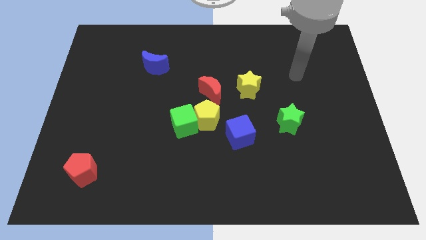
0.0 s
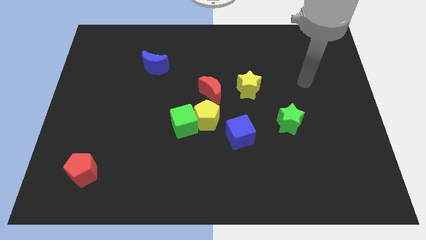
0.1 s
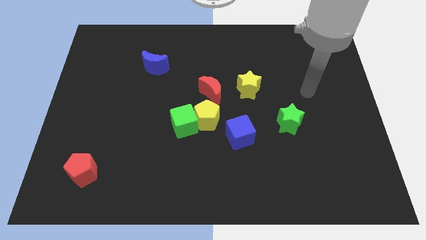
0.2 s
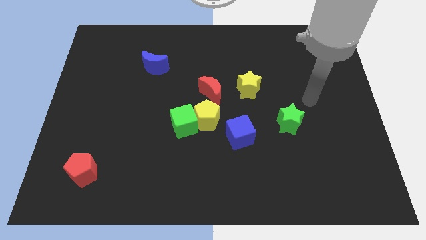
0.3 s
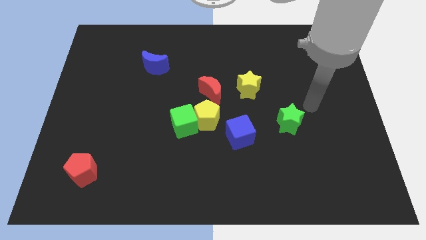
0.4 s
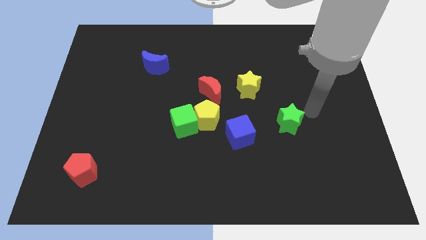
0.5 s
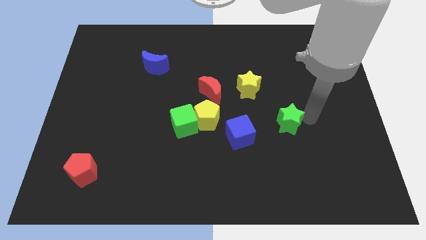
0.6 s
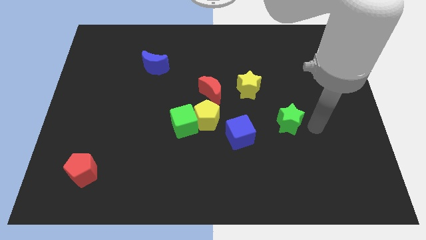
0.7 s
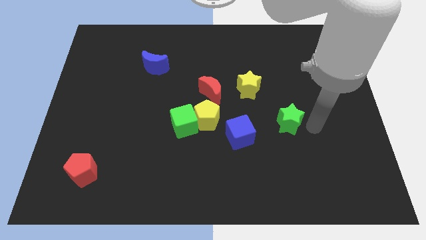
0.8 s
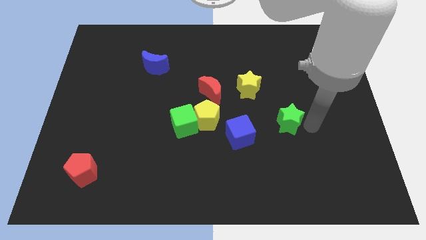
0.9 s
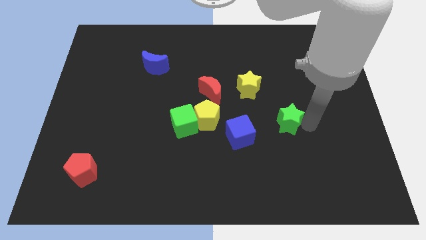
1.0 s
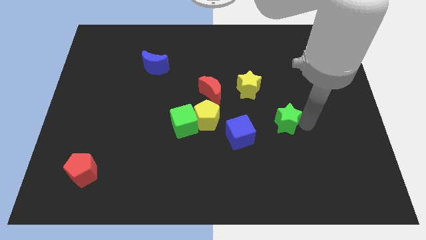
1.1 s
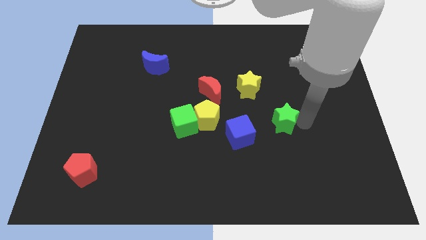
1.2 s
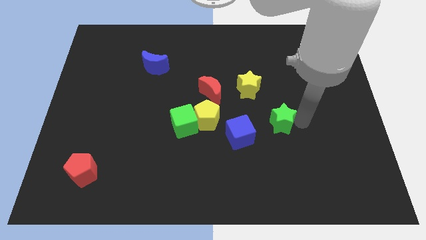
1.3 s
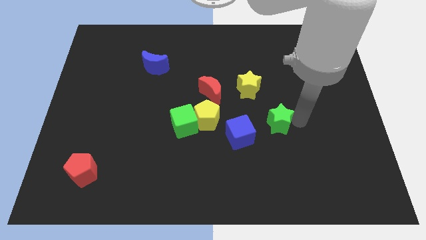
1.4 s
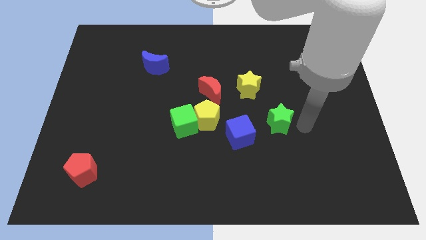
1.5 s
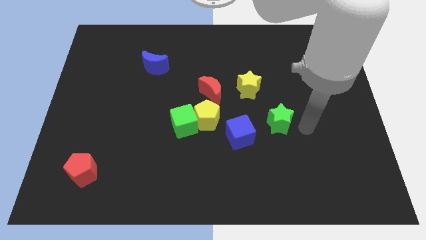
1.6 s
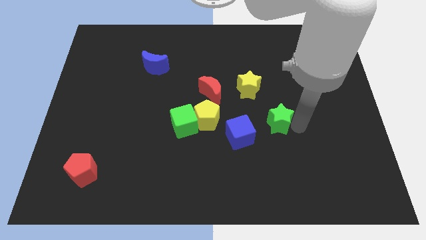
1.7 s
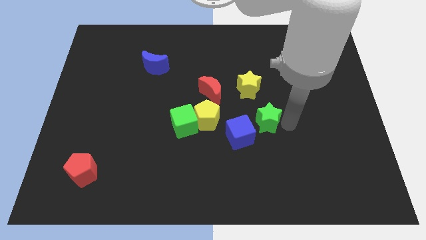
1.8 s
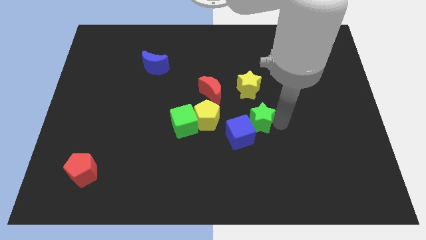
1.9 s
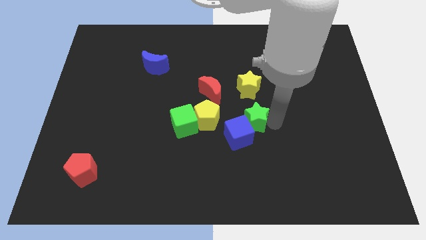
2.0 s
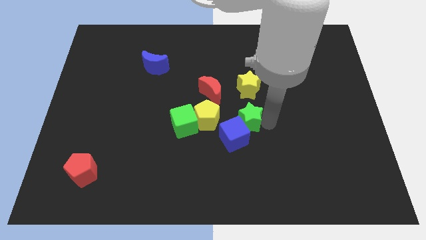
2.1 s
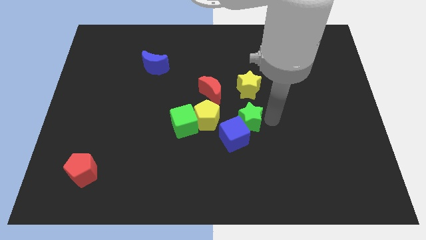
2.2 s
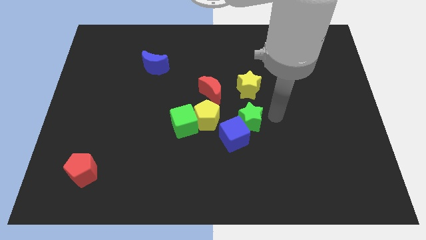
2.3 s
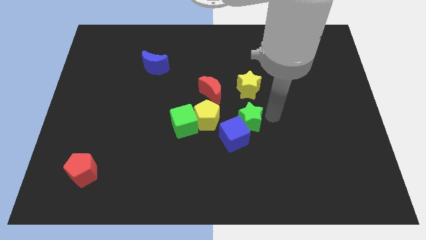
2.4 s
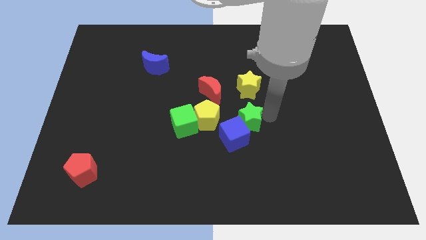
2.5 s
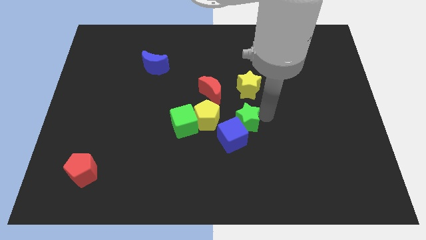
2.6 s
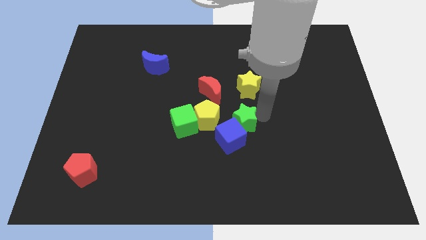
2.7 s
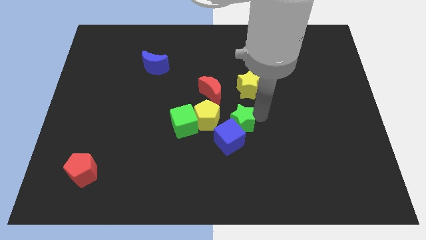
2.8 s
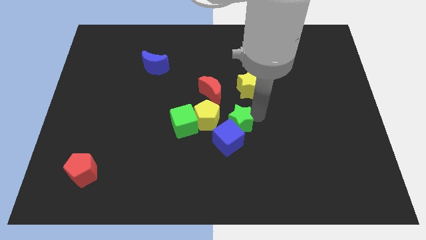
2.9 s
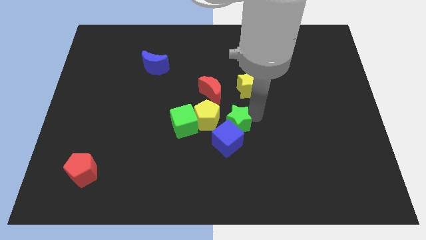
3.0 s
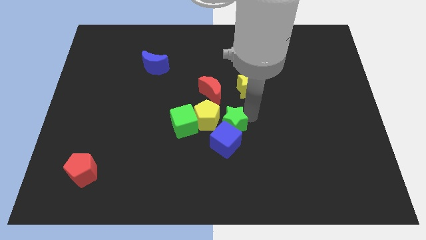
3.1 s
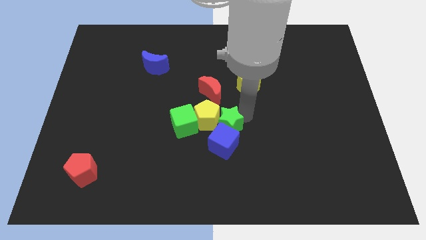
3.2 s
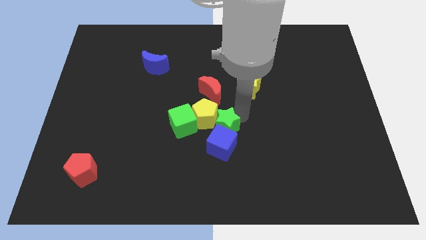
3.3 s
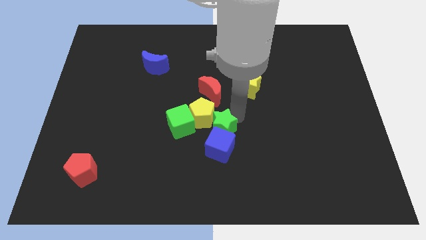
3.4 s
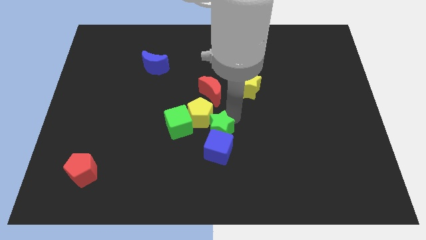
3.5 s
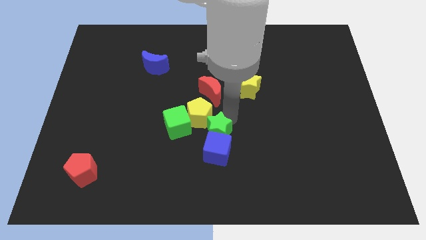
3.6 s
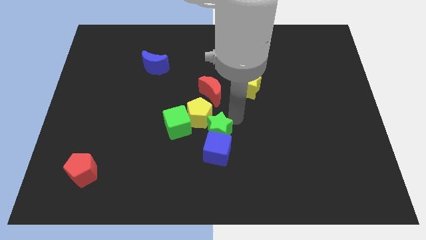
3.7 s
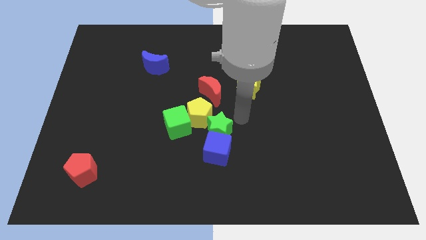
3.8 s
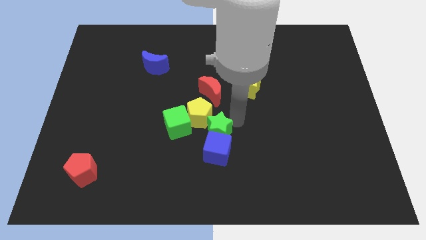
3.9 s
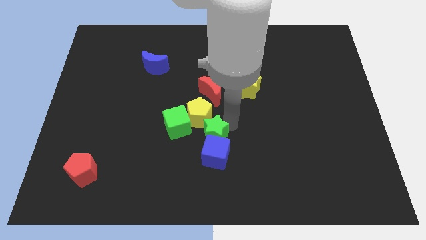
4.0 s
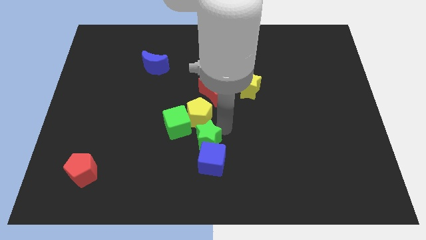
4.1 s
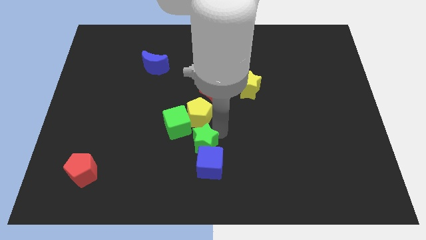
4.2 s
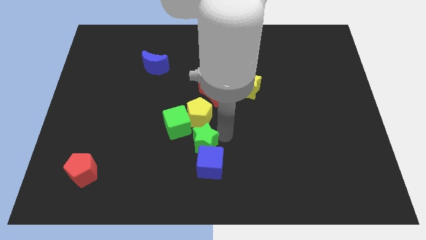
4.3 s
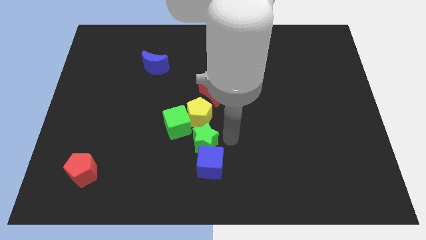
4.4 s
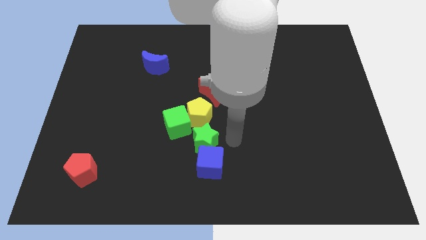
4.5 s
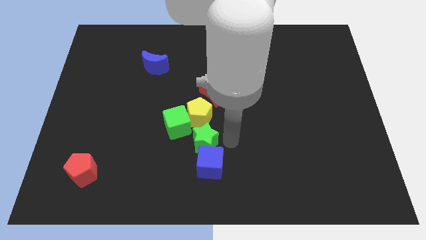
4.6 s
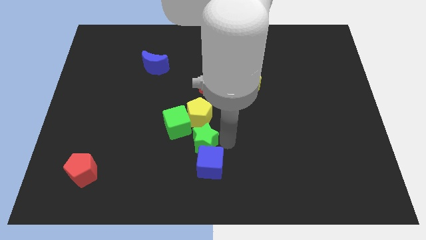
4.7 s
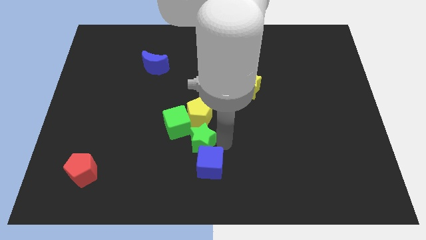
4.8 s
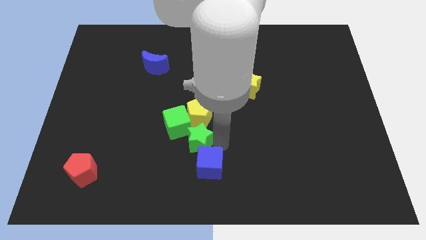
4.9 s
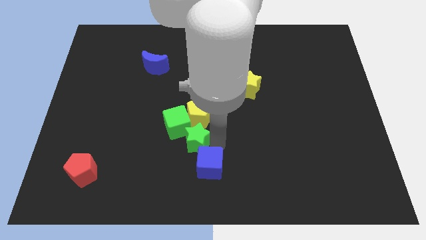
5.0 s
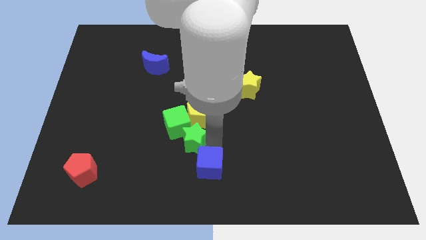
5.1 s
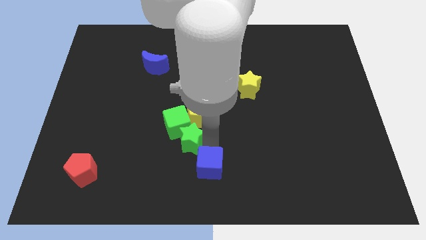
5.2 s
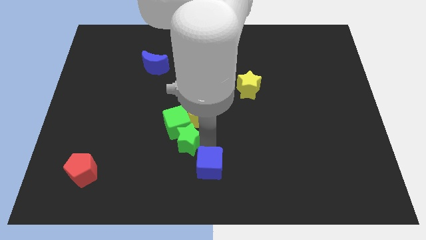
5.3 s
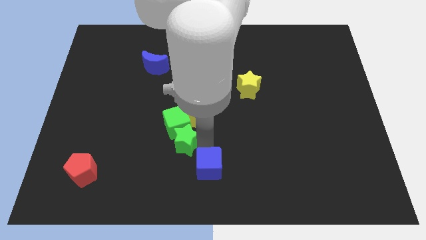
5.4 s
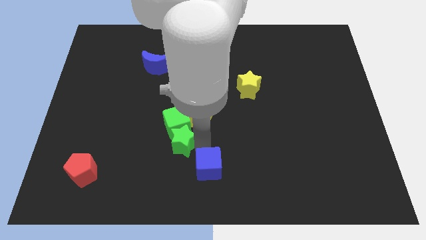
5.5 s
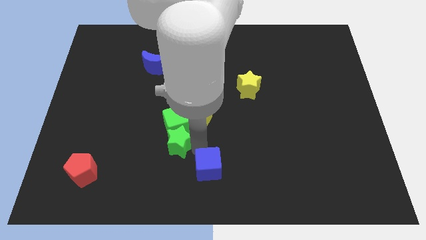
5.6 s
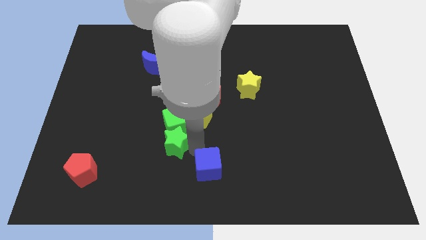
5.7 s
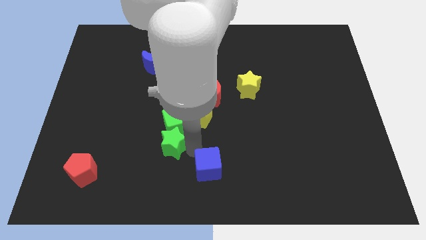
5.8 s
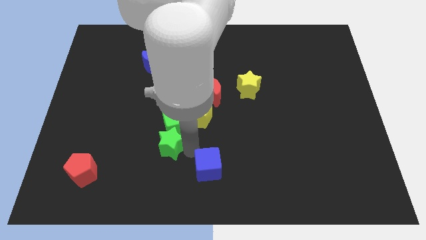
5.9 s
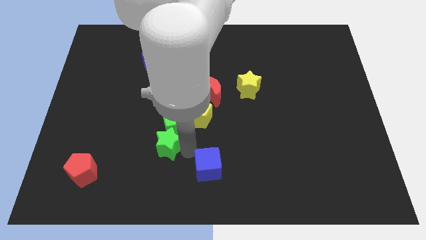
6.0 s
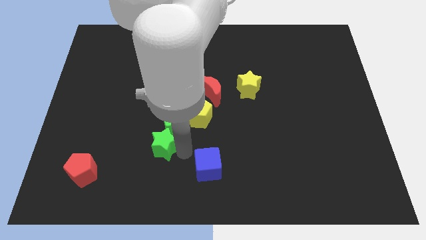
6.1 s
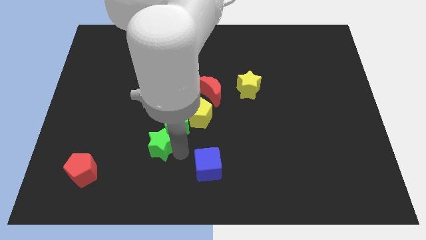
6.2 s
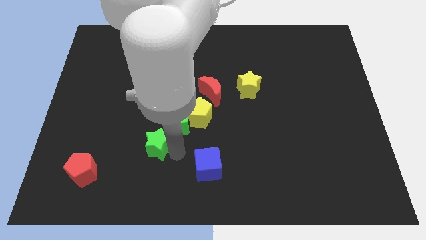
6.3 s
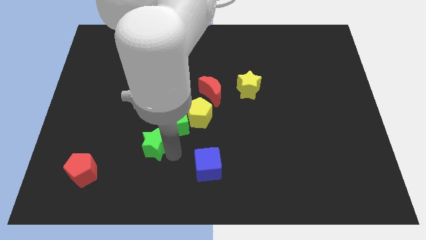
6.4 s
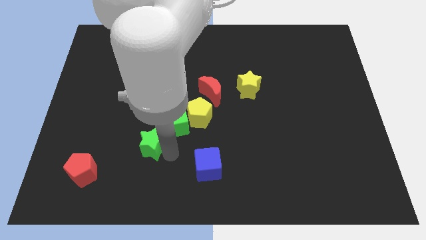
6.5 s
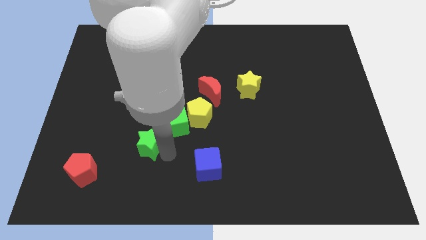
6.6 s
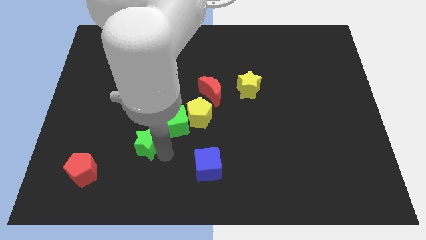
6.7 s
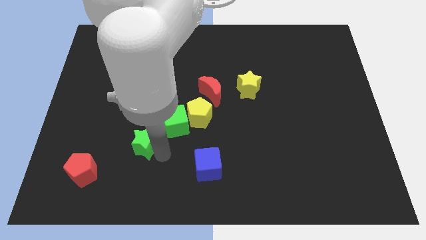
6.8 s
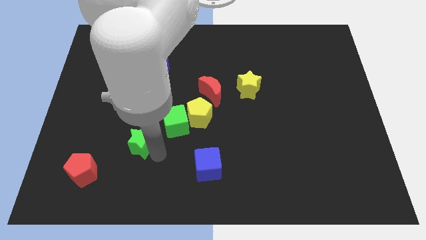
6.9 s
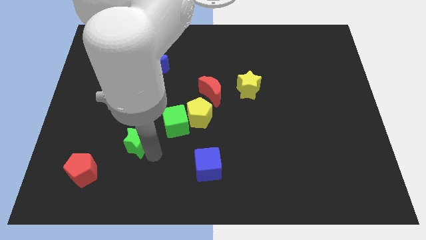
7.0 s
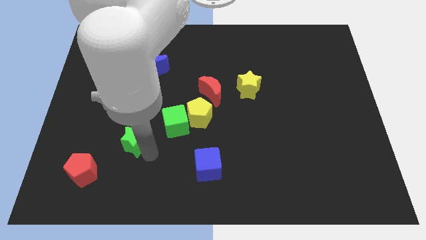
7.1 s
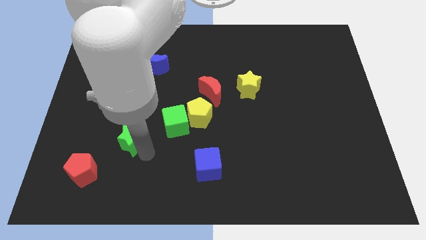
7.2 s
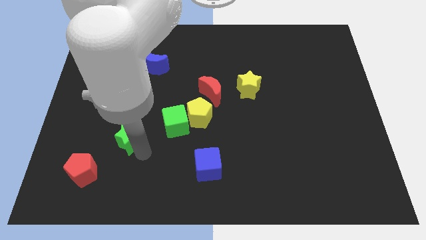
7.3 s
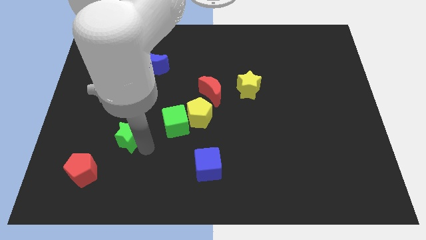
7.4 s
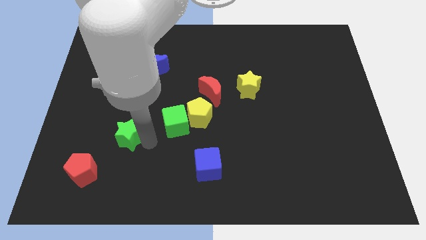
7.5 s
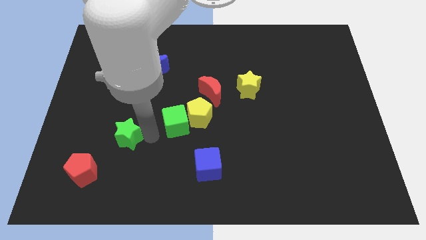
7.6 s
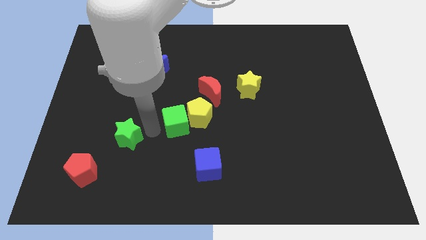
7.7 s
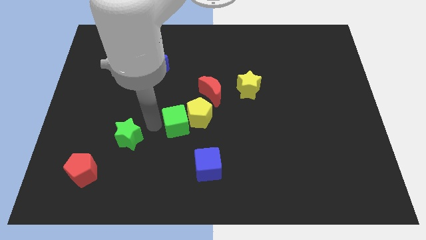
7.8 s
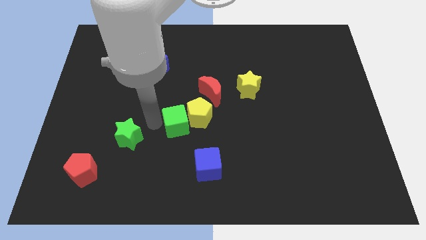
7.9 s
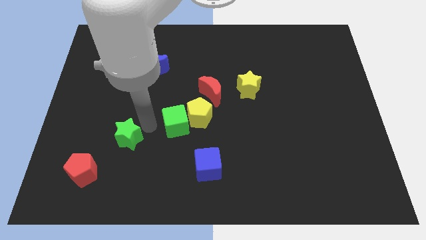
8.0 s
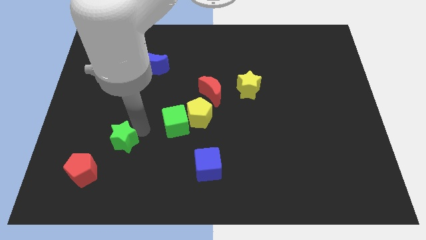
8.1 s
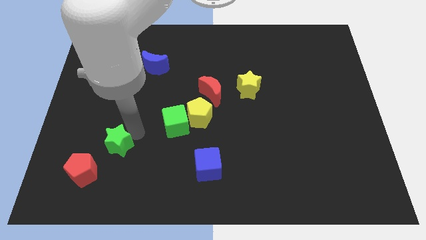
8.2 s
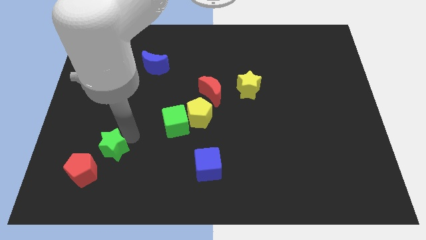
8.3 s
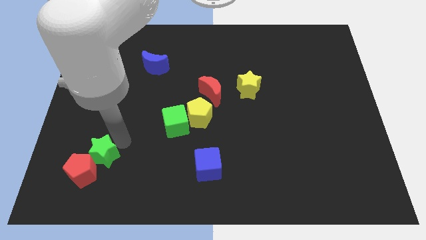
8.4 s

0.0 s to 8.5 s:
move the green star next to the red pentagon
